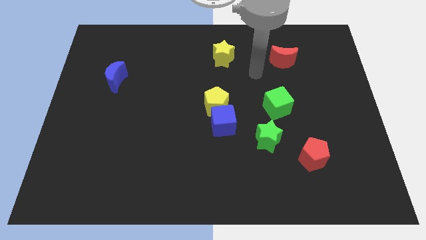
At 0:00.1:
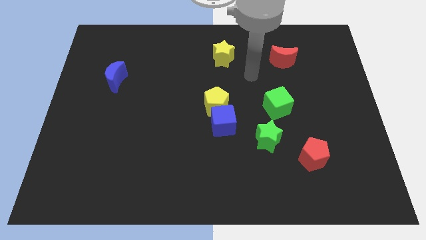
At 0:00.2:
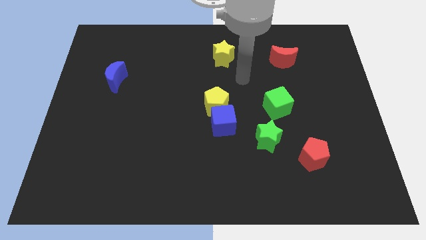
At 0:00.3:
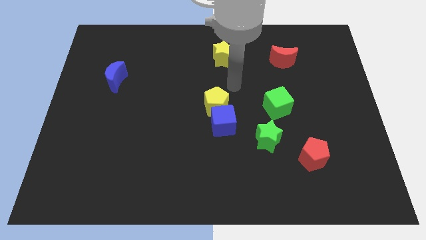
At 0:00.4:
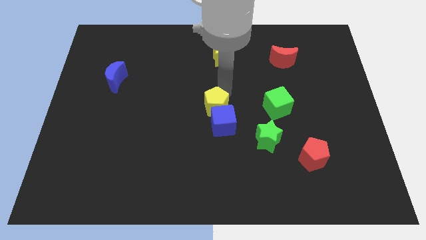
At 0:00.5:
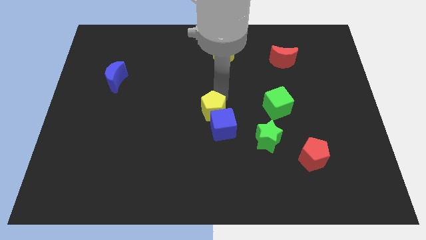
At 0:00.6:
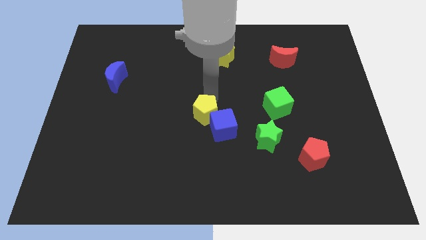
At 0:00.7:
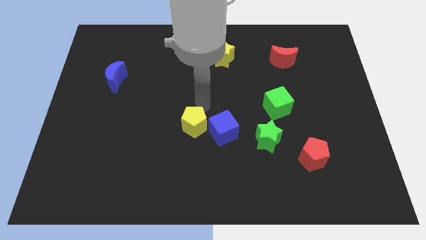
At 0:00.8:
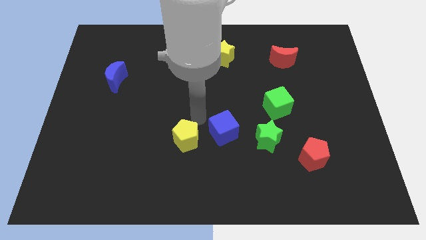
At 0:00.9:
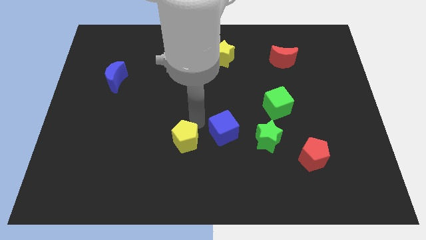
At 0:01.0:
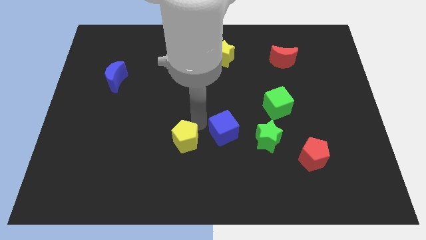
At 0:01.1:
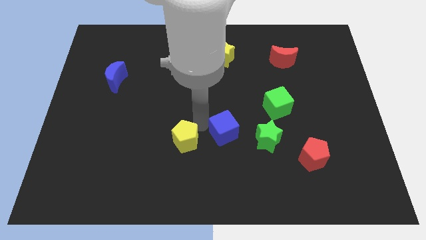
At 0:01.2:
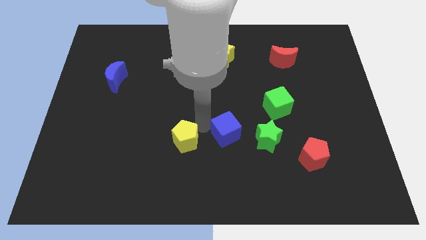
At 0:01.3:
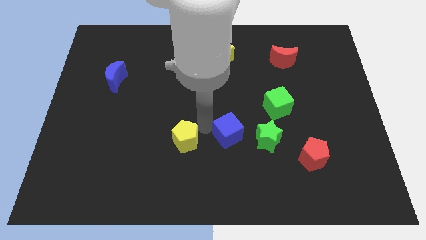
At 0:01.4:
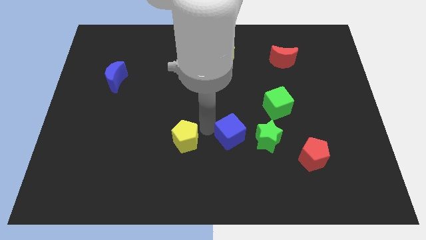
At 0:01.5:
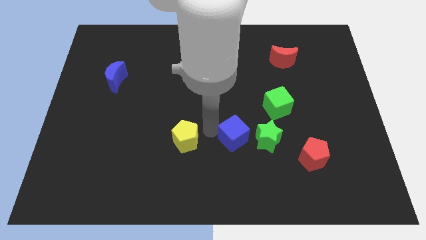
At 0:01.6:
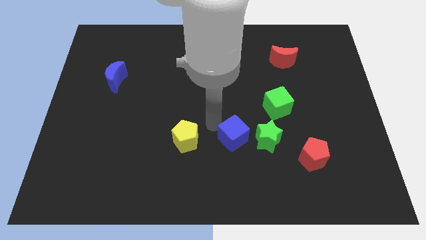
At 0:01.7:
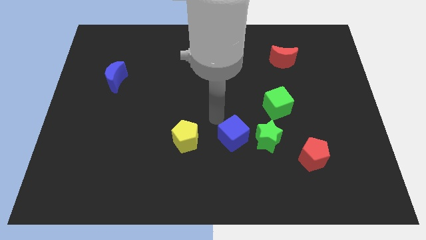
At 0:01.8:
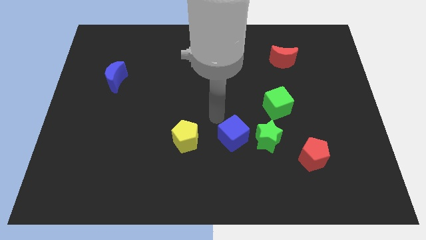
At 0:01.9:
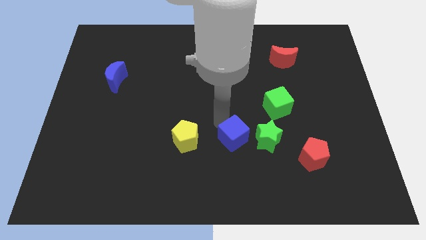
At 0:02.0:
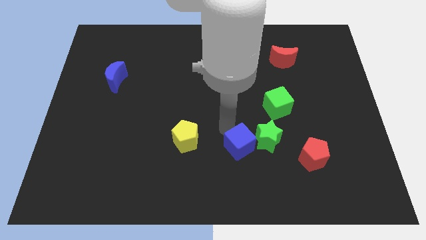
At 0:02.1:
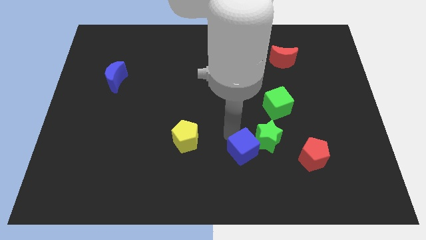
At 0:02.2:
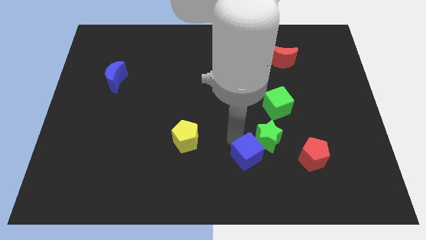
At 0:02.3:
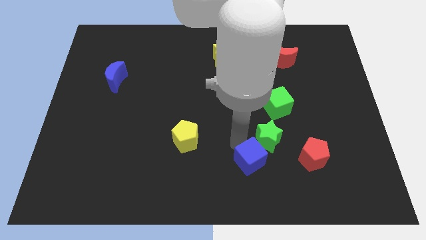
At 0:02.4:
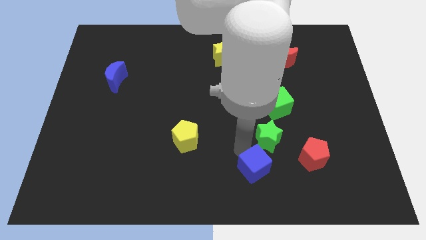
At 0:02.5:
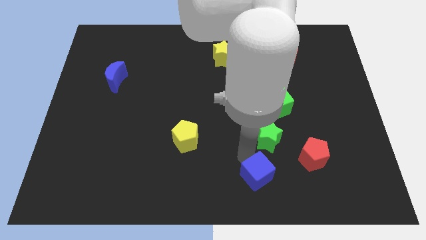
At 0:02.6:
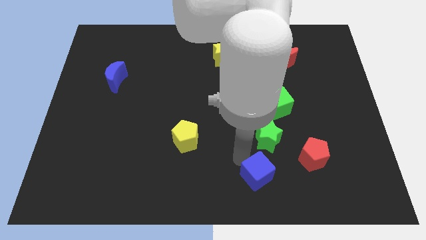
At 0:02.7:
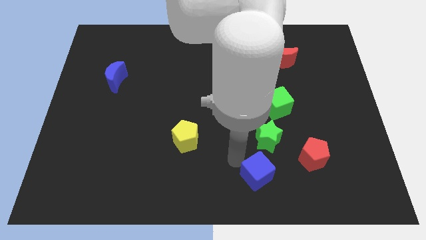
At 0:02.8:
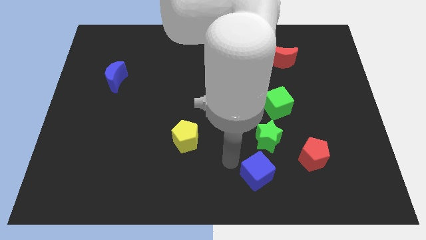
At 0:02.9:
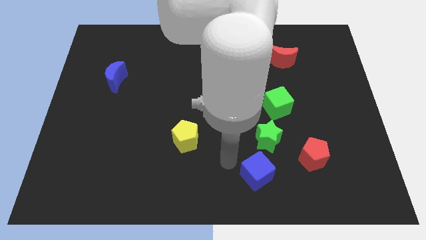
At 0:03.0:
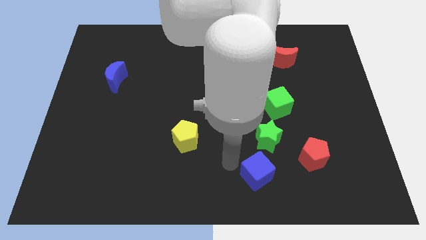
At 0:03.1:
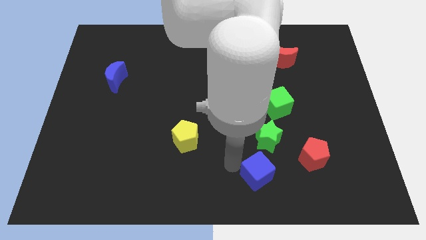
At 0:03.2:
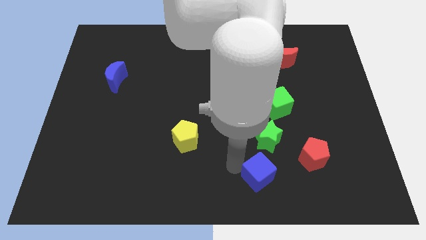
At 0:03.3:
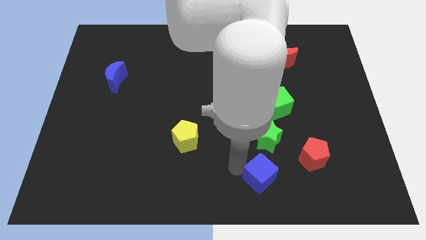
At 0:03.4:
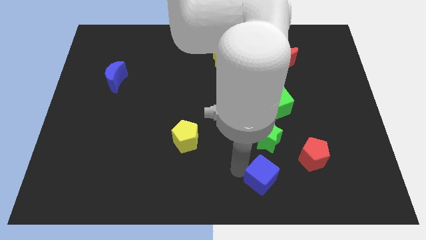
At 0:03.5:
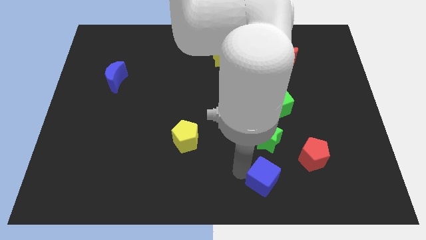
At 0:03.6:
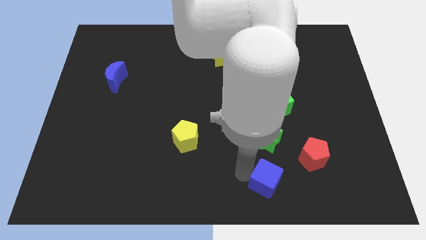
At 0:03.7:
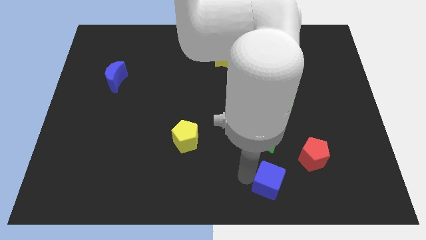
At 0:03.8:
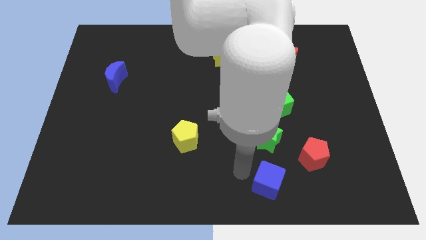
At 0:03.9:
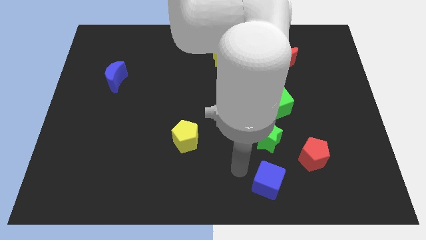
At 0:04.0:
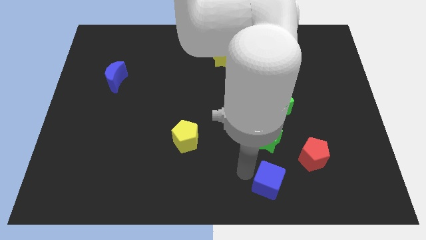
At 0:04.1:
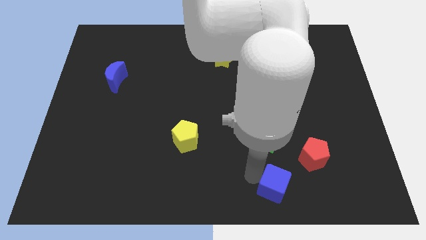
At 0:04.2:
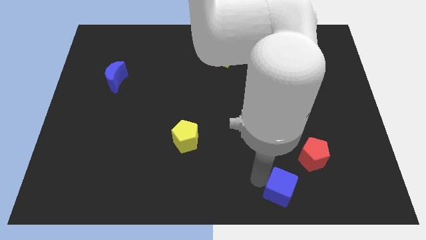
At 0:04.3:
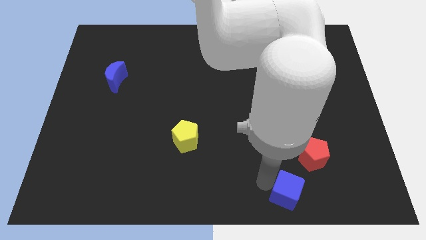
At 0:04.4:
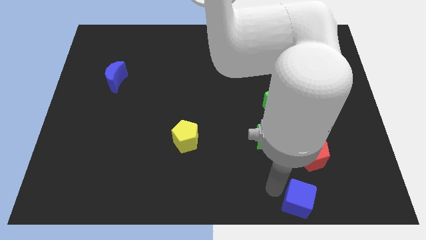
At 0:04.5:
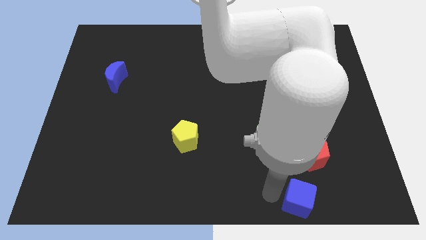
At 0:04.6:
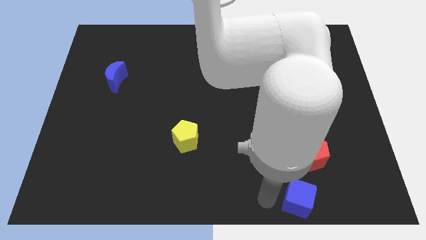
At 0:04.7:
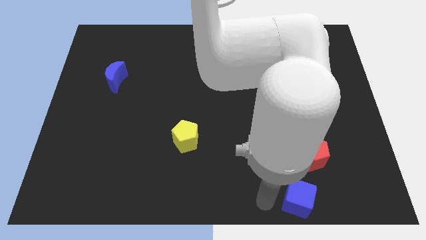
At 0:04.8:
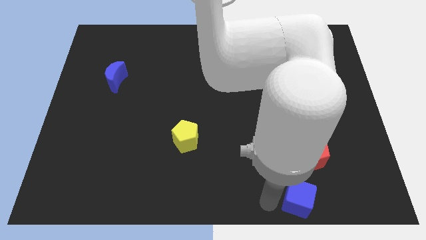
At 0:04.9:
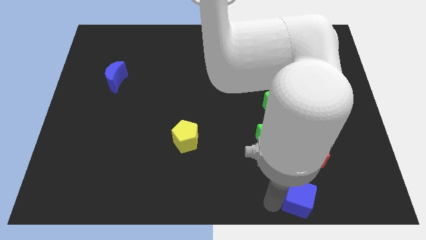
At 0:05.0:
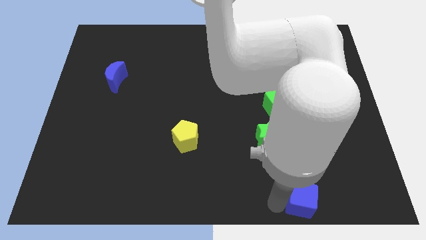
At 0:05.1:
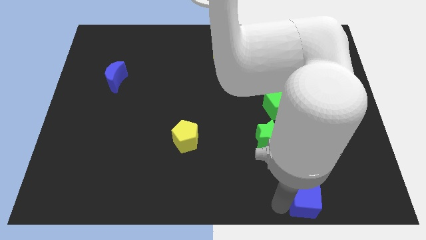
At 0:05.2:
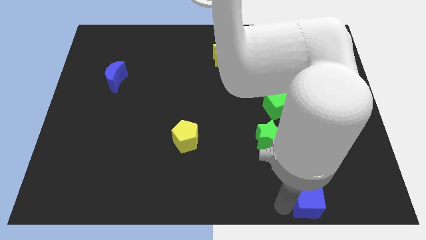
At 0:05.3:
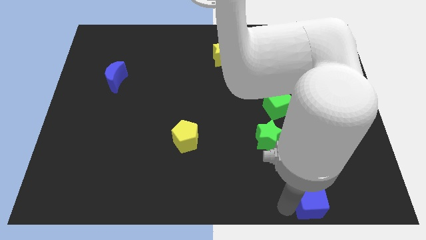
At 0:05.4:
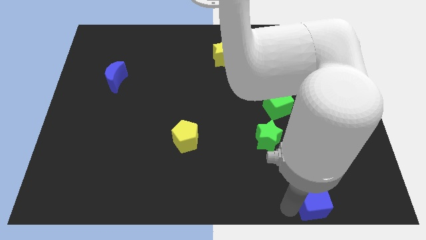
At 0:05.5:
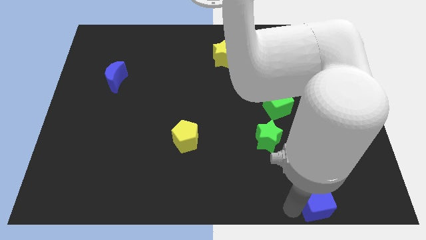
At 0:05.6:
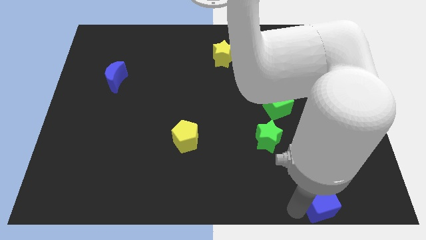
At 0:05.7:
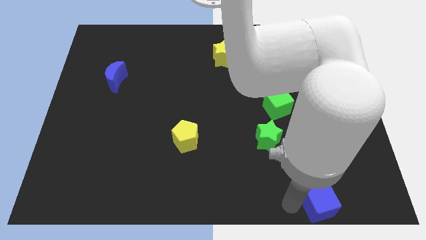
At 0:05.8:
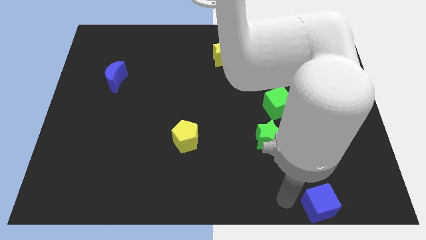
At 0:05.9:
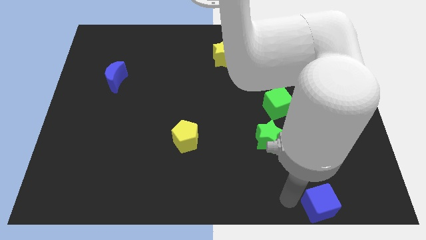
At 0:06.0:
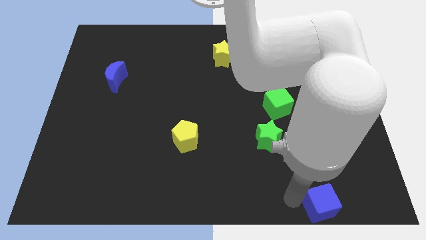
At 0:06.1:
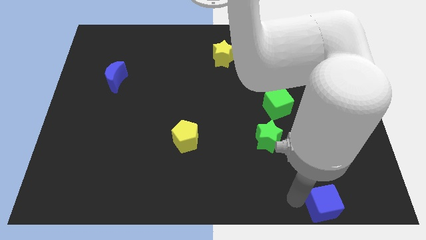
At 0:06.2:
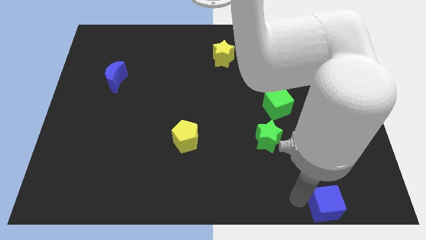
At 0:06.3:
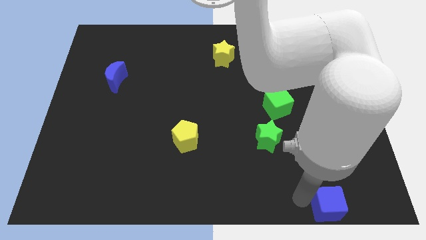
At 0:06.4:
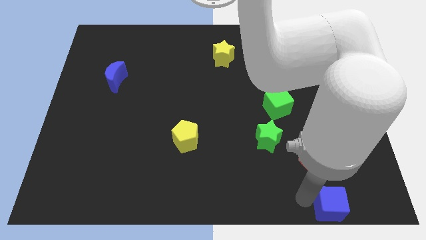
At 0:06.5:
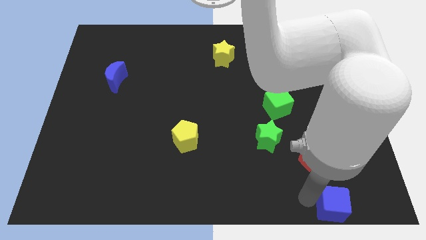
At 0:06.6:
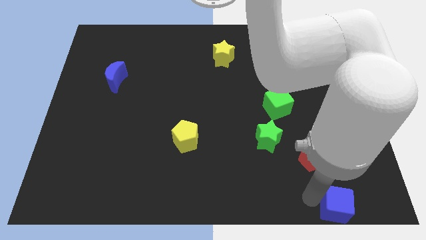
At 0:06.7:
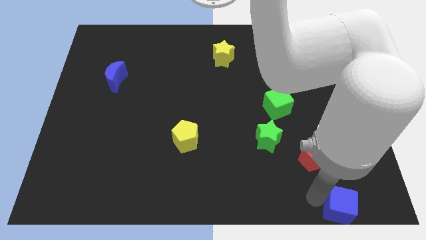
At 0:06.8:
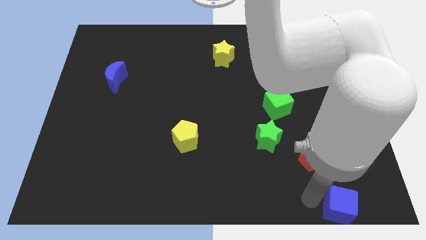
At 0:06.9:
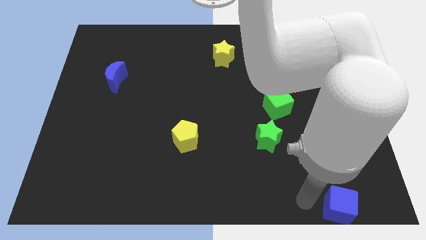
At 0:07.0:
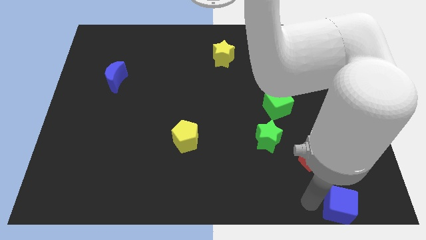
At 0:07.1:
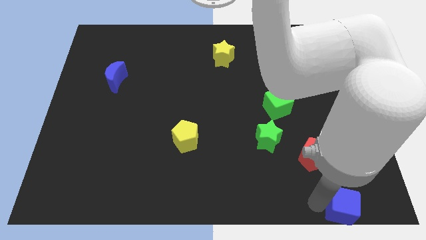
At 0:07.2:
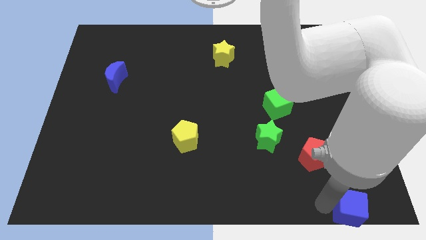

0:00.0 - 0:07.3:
put the blue cube to the lower right corner

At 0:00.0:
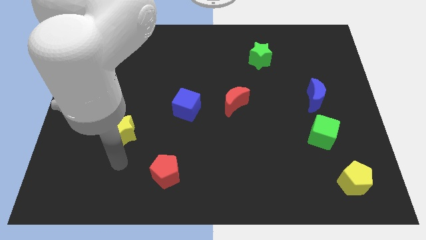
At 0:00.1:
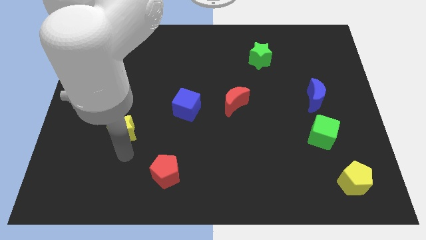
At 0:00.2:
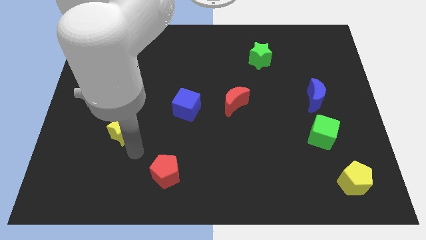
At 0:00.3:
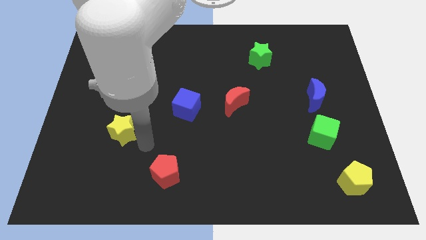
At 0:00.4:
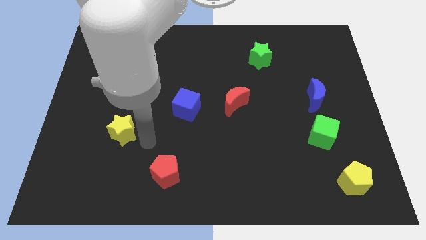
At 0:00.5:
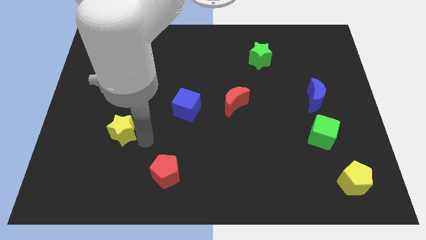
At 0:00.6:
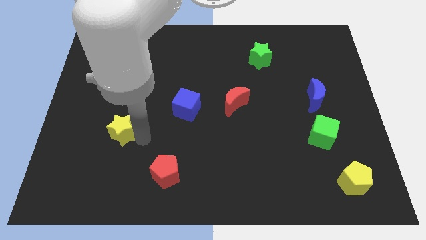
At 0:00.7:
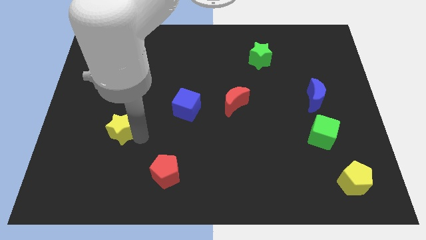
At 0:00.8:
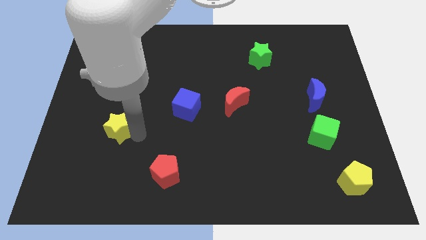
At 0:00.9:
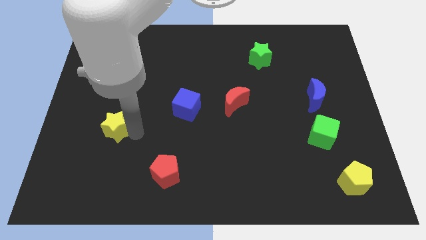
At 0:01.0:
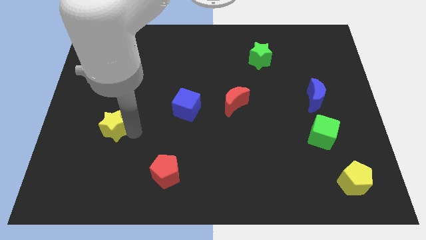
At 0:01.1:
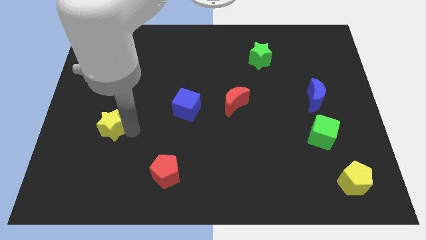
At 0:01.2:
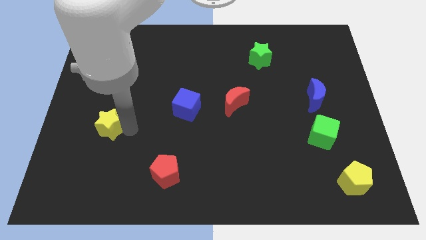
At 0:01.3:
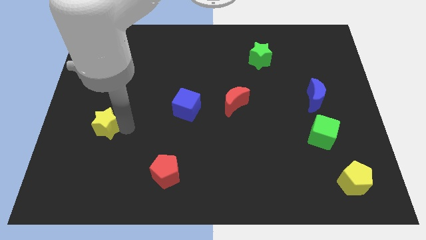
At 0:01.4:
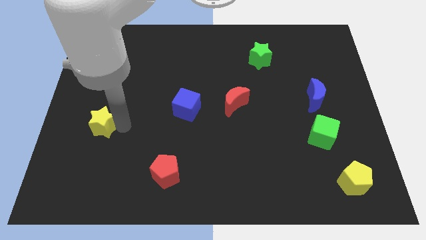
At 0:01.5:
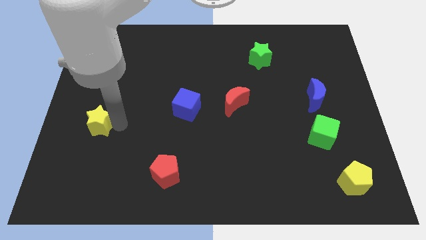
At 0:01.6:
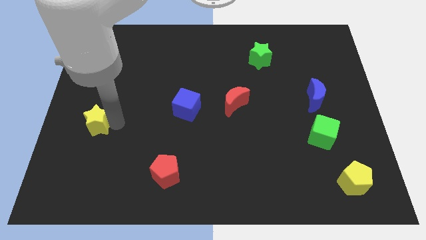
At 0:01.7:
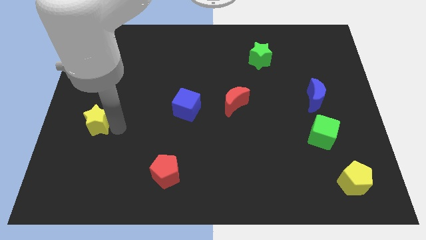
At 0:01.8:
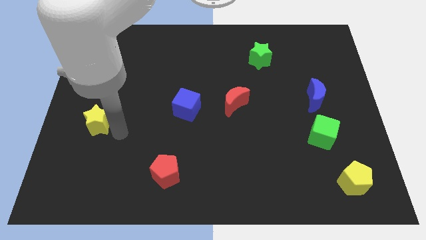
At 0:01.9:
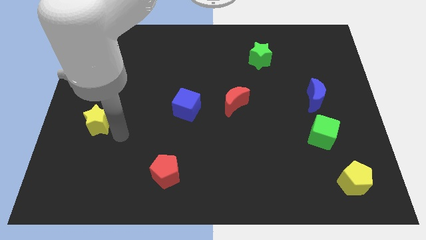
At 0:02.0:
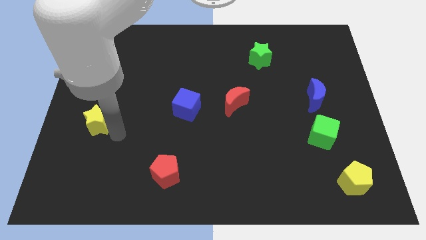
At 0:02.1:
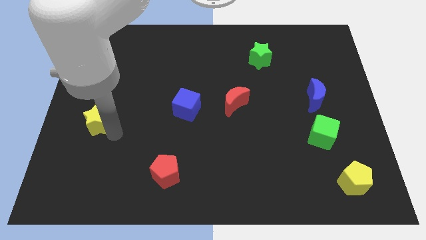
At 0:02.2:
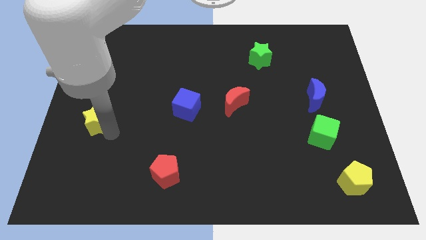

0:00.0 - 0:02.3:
push the yellow star to the center left
